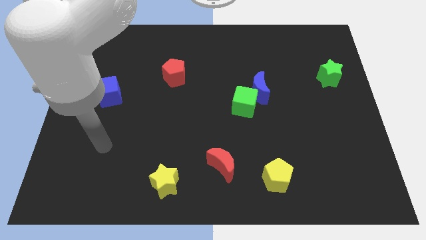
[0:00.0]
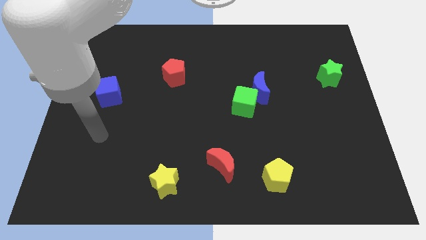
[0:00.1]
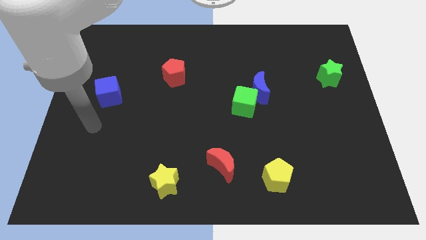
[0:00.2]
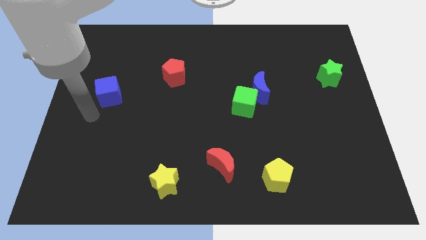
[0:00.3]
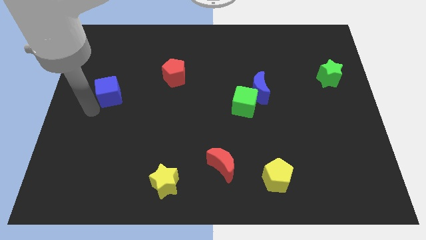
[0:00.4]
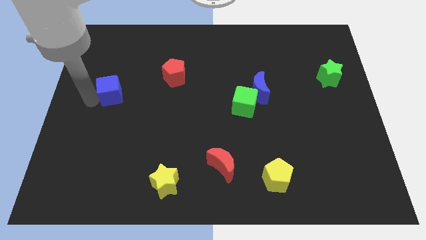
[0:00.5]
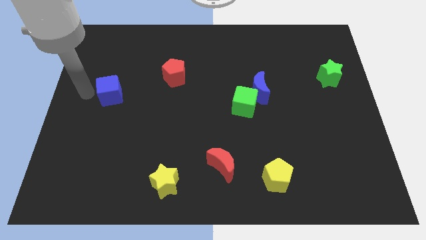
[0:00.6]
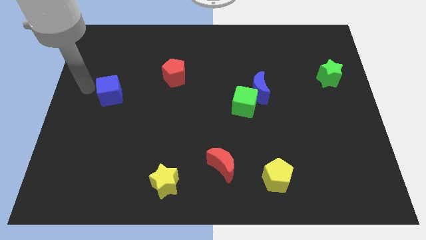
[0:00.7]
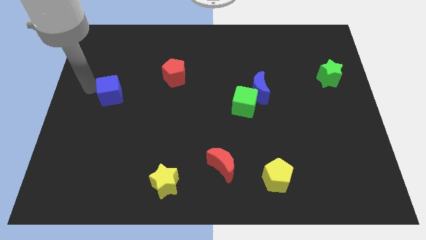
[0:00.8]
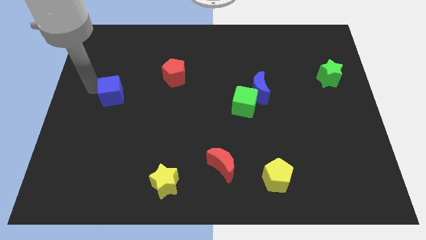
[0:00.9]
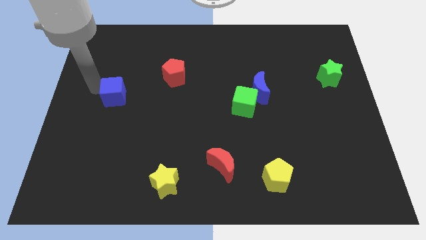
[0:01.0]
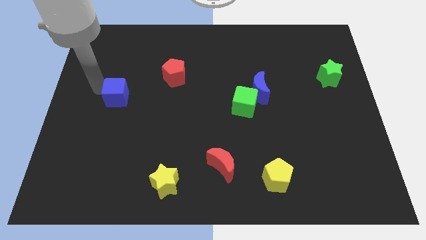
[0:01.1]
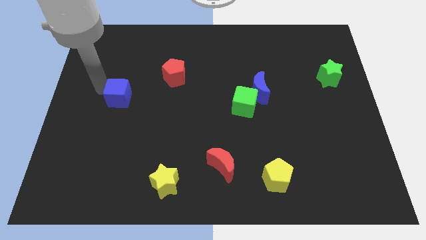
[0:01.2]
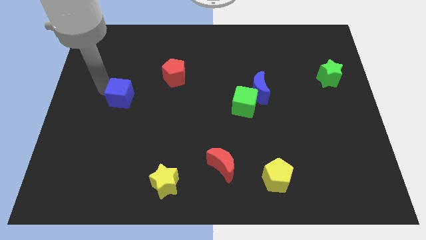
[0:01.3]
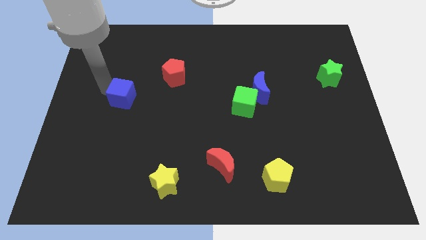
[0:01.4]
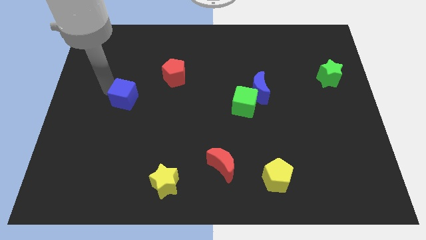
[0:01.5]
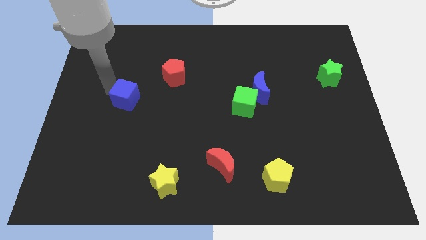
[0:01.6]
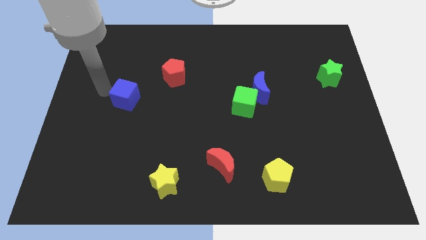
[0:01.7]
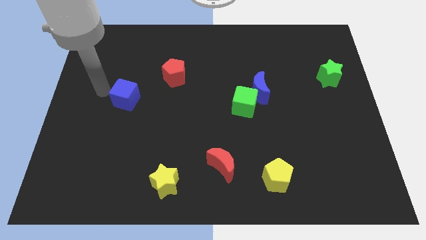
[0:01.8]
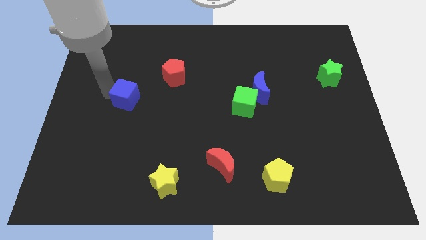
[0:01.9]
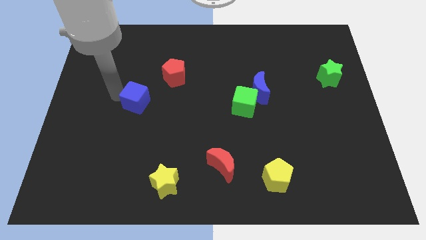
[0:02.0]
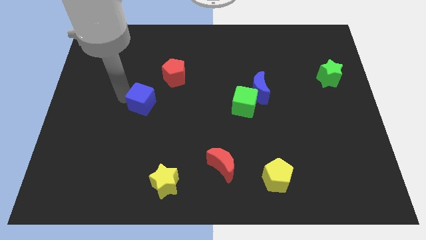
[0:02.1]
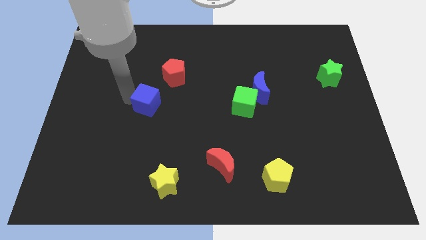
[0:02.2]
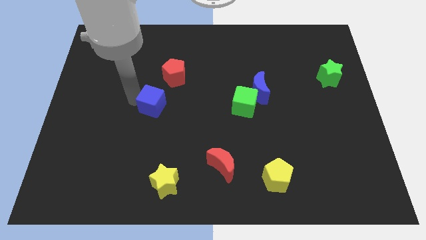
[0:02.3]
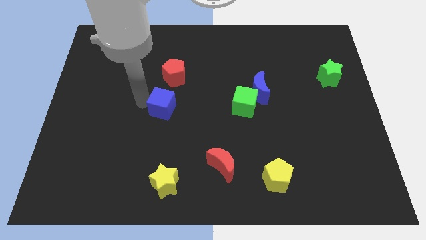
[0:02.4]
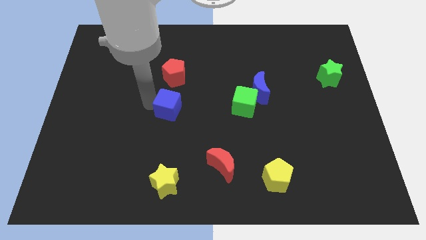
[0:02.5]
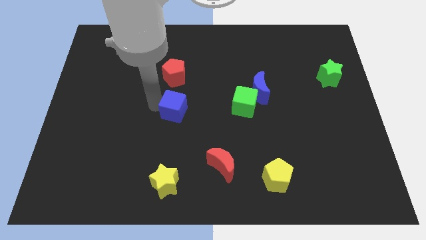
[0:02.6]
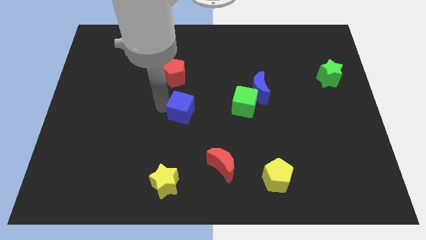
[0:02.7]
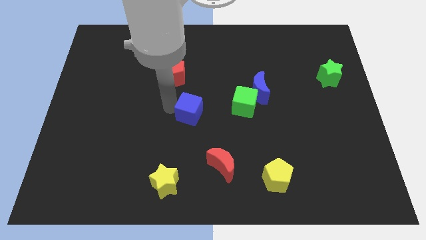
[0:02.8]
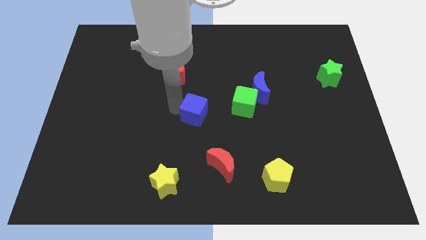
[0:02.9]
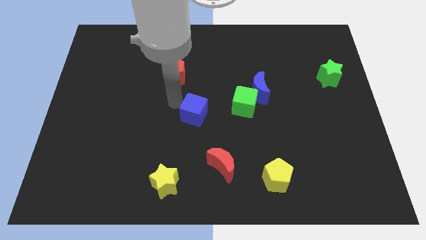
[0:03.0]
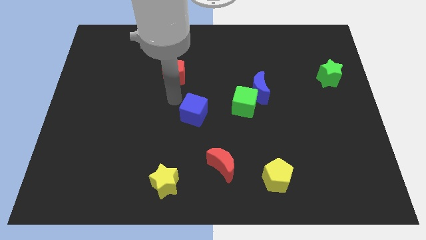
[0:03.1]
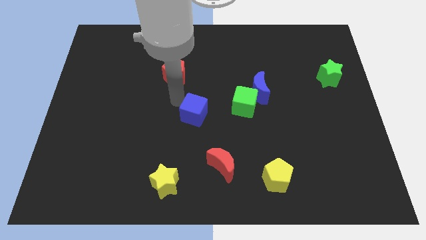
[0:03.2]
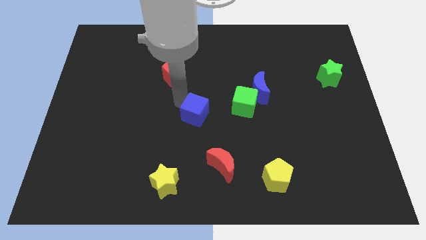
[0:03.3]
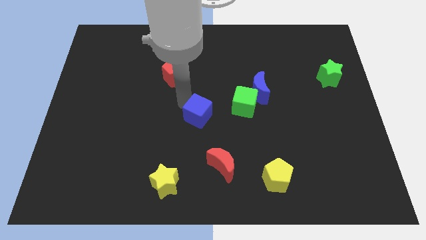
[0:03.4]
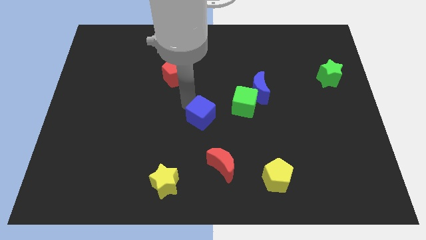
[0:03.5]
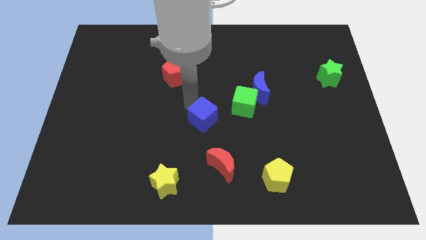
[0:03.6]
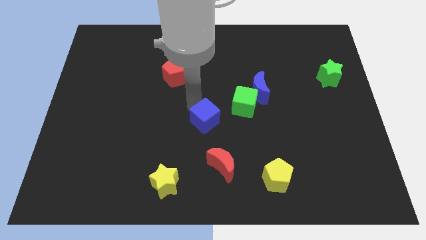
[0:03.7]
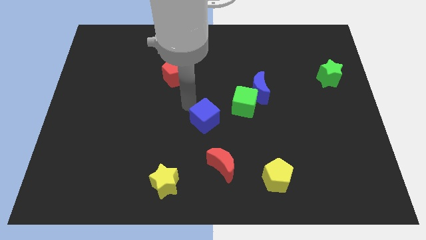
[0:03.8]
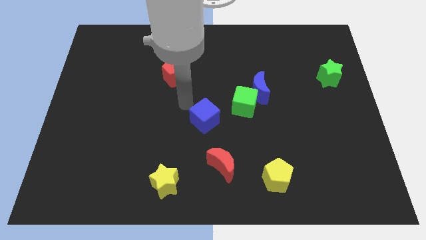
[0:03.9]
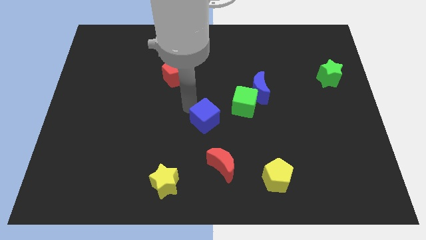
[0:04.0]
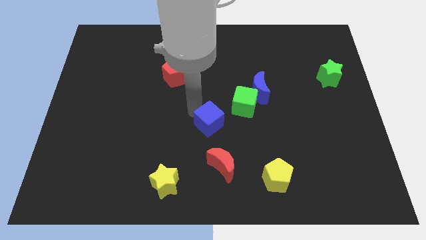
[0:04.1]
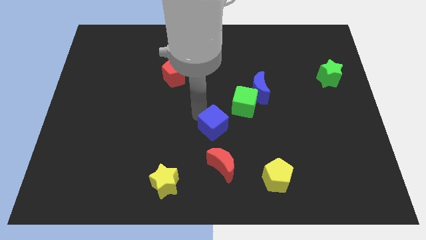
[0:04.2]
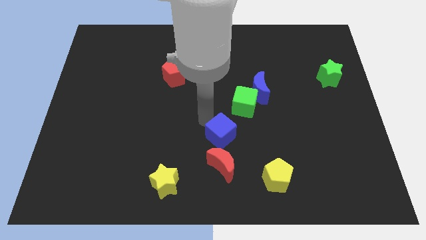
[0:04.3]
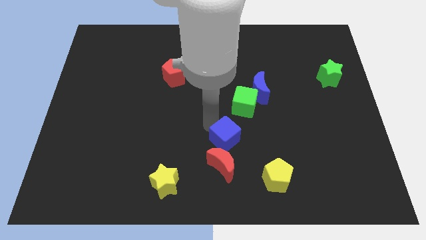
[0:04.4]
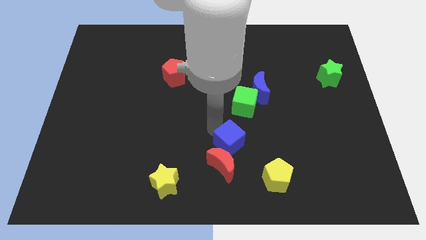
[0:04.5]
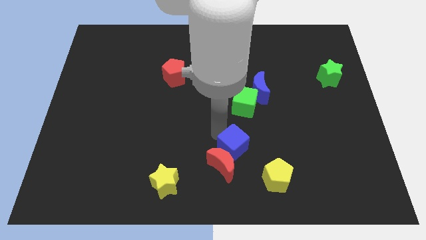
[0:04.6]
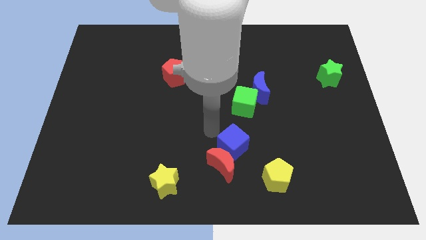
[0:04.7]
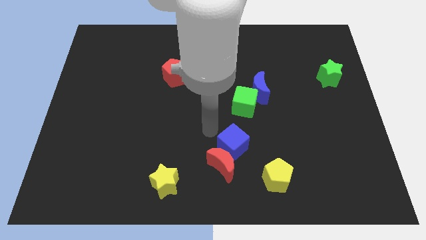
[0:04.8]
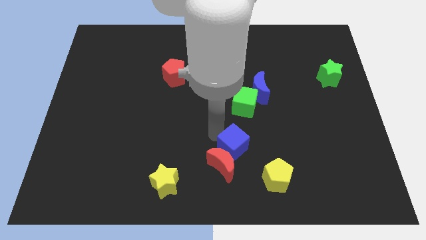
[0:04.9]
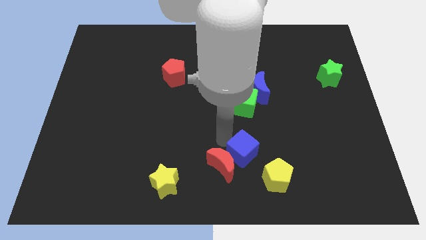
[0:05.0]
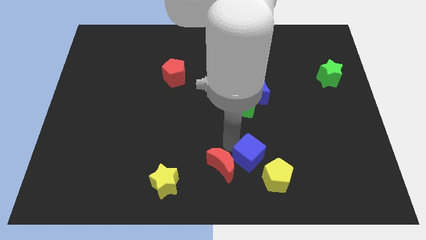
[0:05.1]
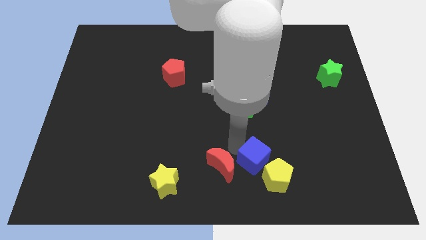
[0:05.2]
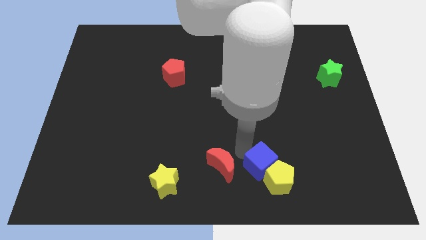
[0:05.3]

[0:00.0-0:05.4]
put the blue cube next to the yellow pentagon

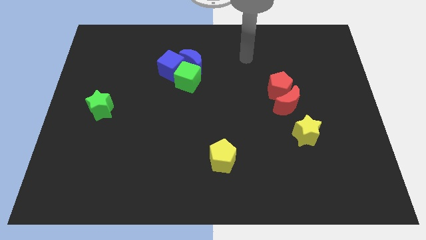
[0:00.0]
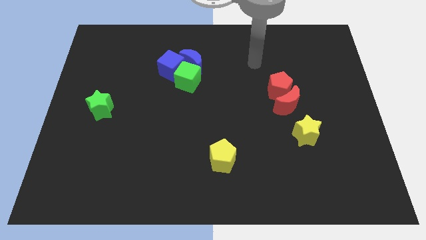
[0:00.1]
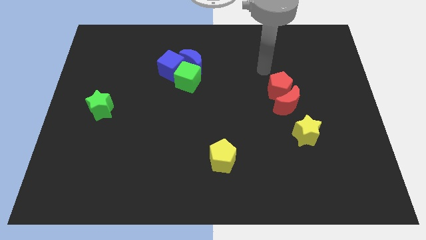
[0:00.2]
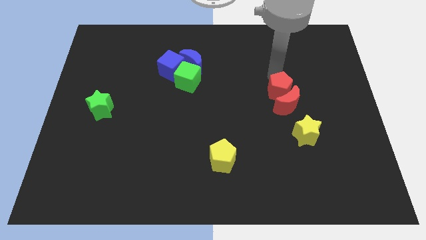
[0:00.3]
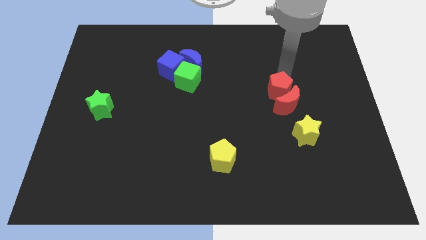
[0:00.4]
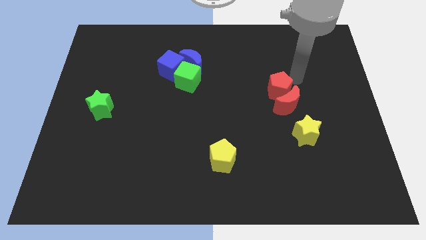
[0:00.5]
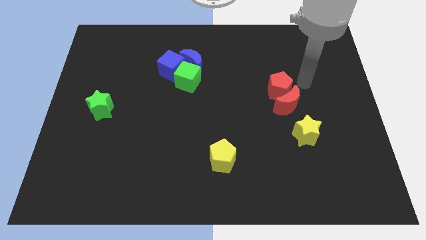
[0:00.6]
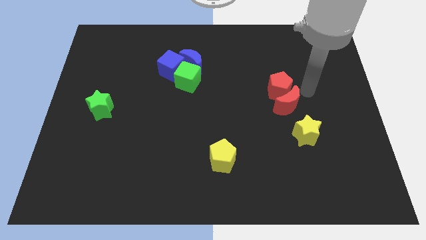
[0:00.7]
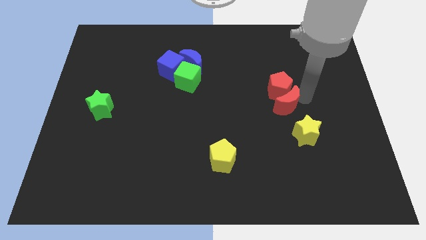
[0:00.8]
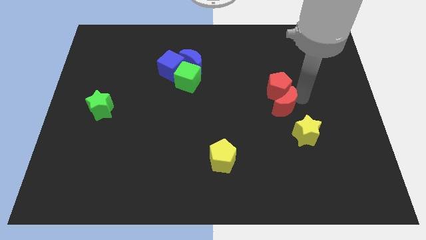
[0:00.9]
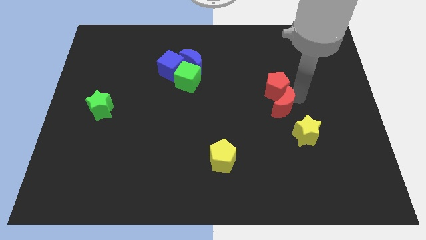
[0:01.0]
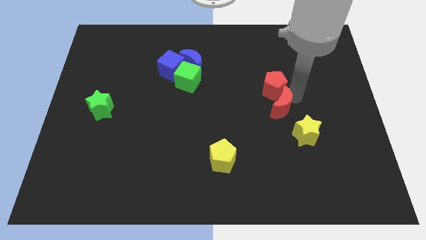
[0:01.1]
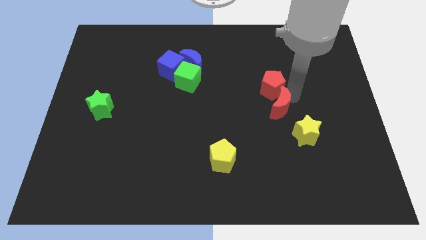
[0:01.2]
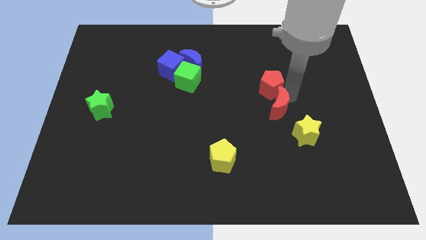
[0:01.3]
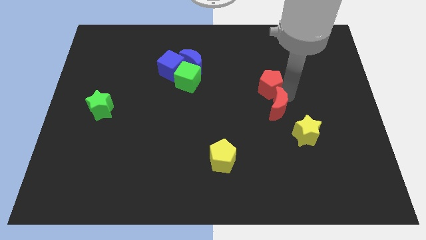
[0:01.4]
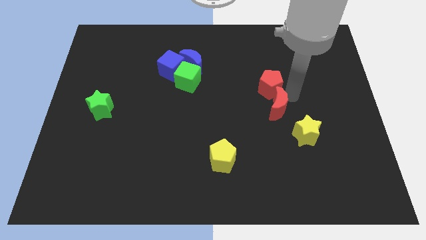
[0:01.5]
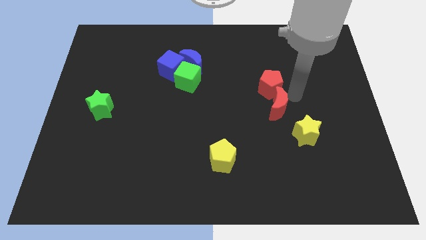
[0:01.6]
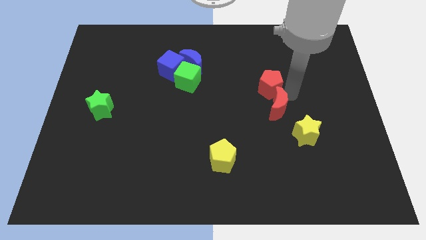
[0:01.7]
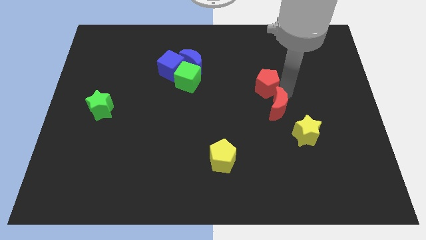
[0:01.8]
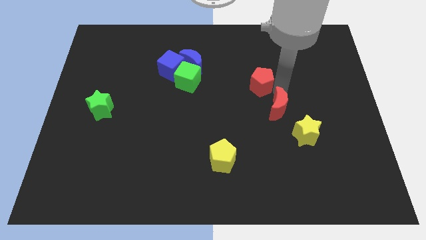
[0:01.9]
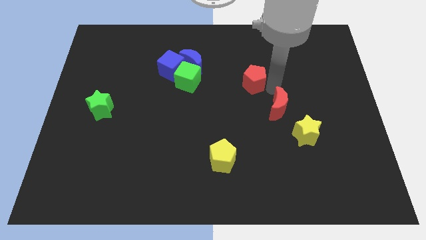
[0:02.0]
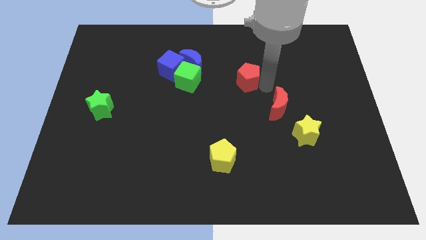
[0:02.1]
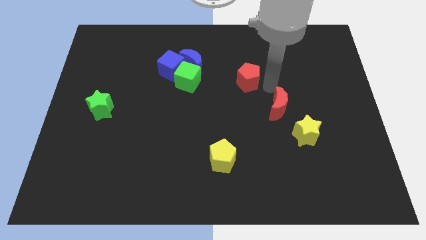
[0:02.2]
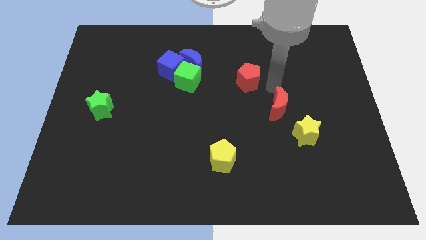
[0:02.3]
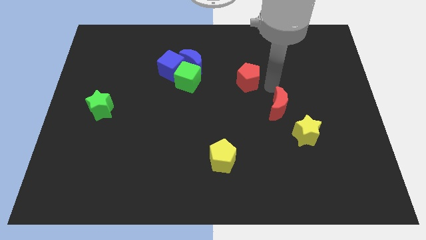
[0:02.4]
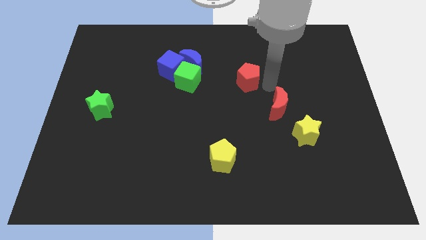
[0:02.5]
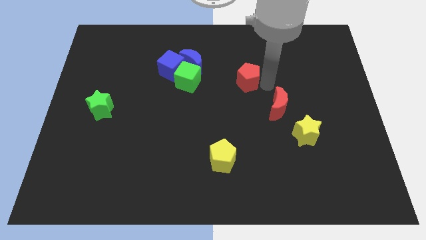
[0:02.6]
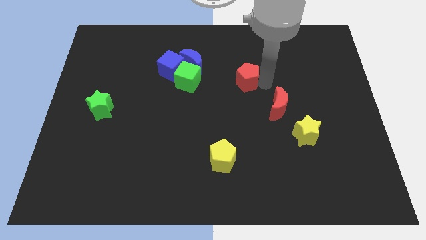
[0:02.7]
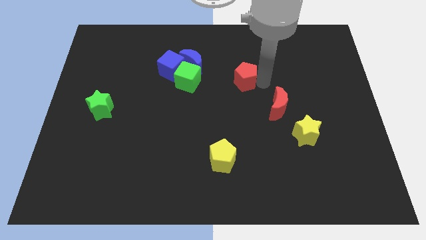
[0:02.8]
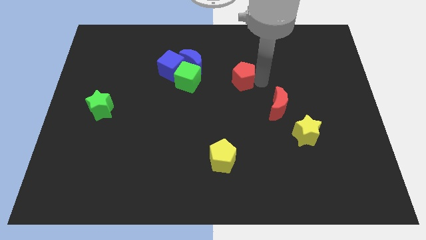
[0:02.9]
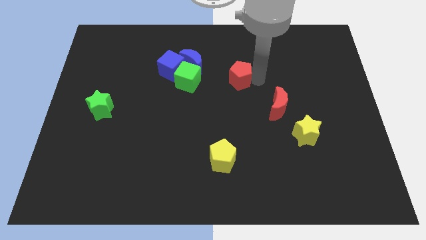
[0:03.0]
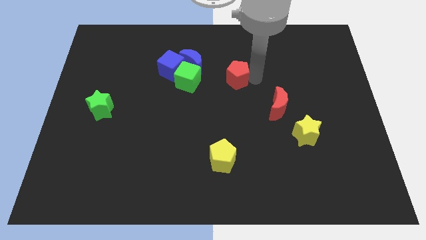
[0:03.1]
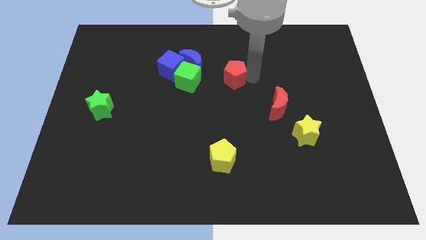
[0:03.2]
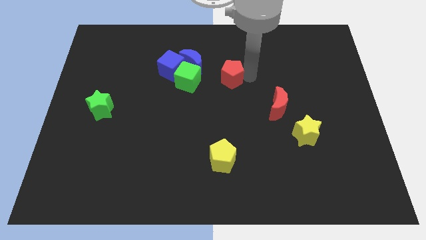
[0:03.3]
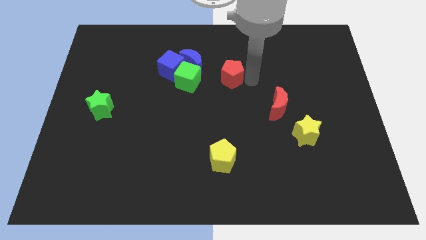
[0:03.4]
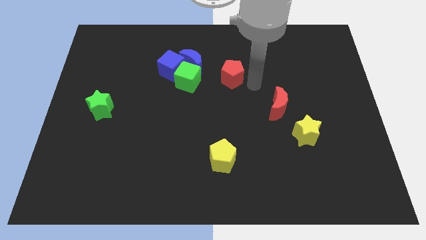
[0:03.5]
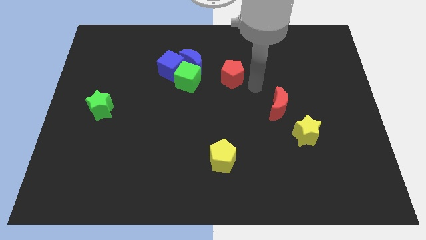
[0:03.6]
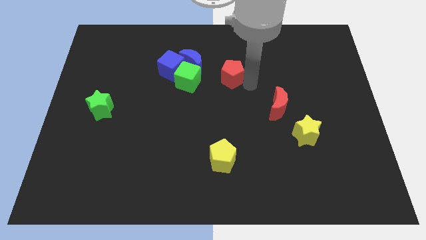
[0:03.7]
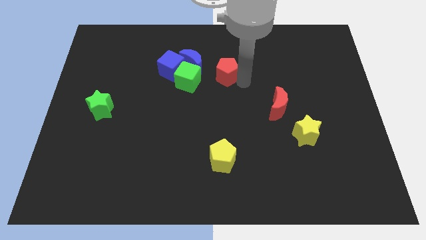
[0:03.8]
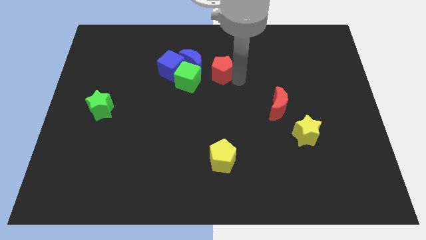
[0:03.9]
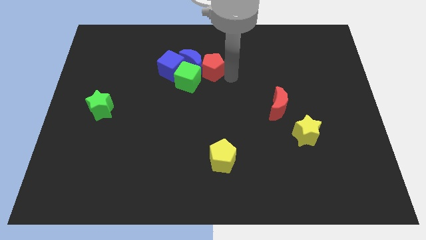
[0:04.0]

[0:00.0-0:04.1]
put the red pentagon close to the blue moon
